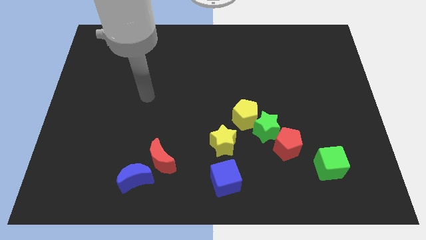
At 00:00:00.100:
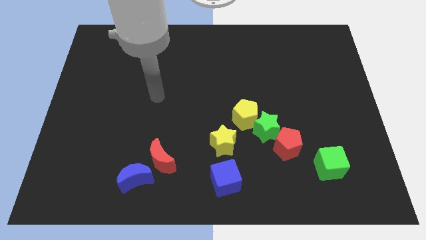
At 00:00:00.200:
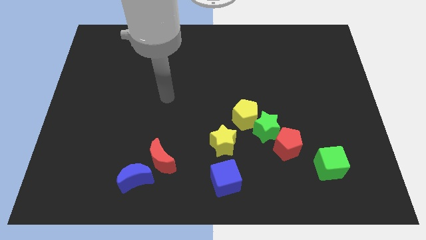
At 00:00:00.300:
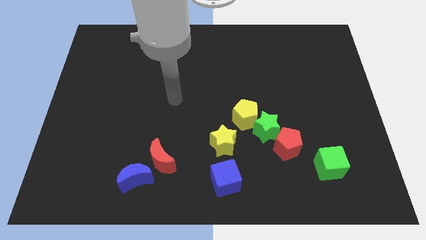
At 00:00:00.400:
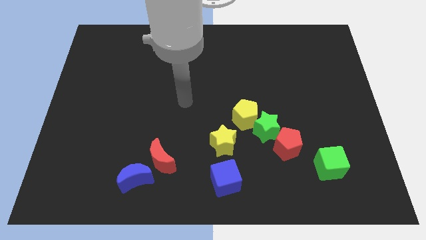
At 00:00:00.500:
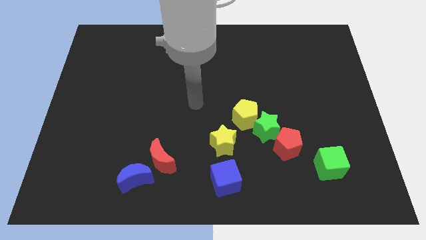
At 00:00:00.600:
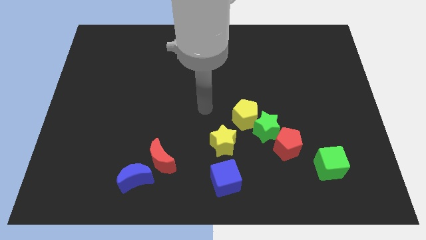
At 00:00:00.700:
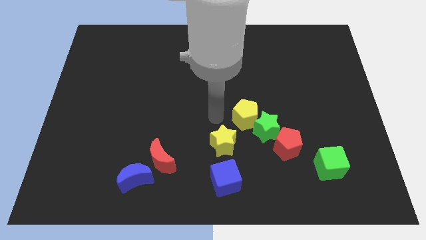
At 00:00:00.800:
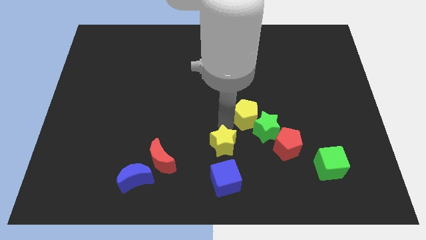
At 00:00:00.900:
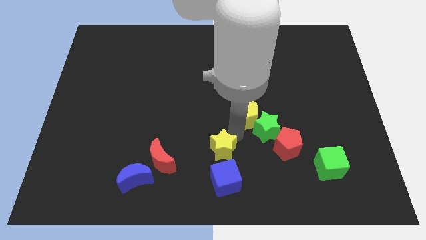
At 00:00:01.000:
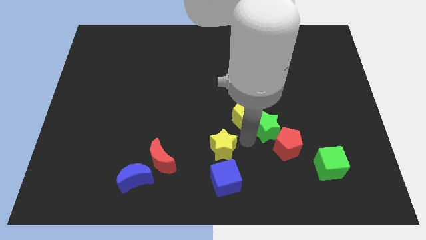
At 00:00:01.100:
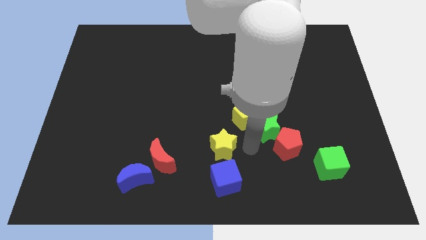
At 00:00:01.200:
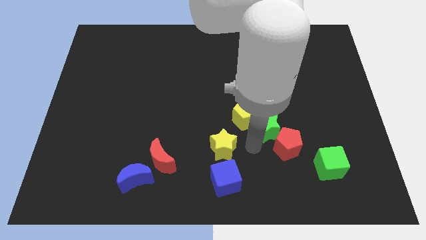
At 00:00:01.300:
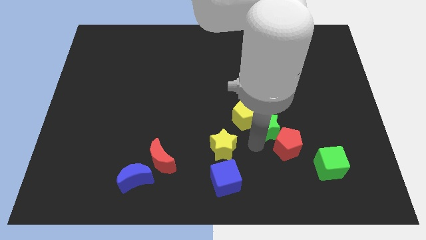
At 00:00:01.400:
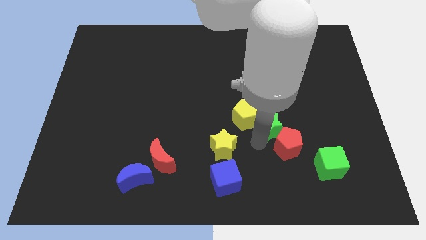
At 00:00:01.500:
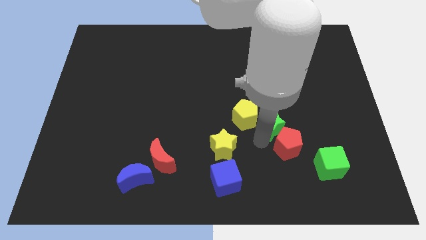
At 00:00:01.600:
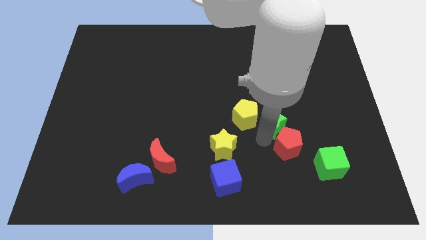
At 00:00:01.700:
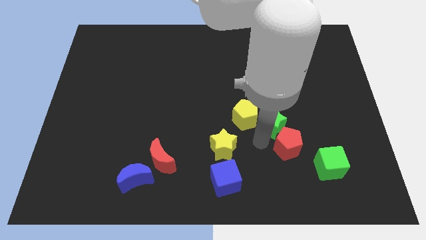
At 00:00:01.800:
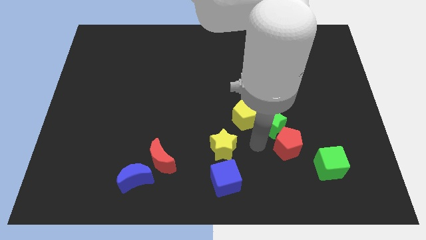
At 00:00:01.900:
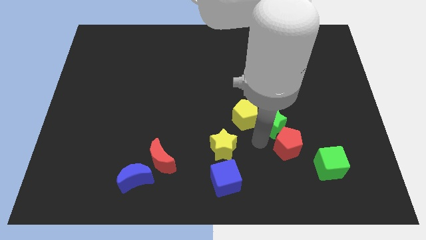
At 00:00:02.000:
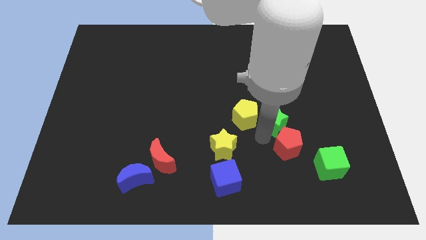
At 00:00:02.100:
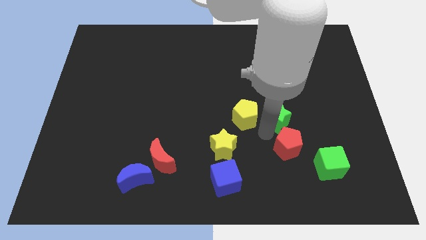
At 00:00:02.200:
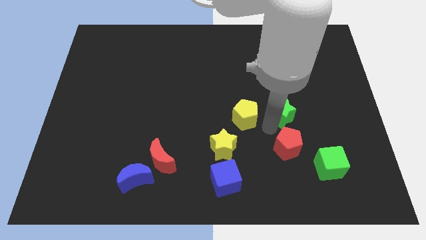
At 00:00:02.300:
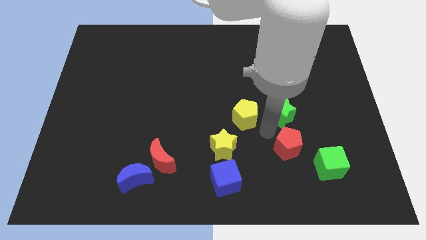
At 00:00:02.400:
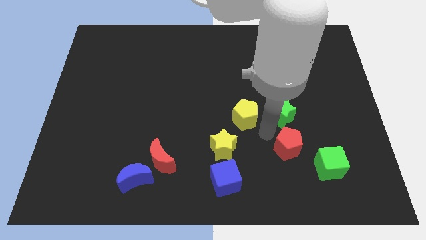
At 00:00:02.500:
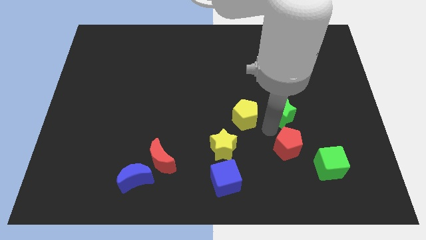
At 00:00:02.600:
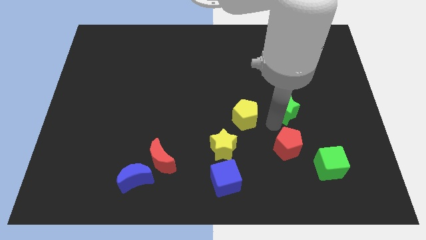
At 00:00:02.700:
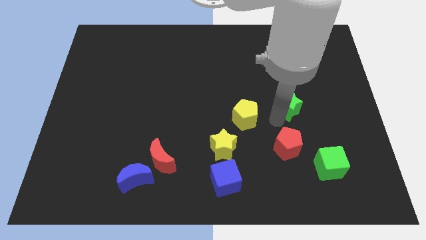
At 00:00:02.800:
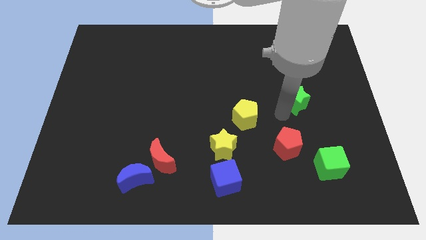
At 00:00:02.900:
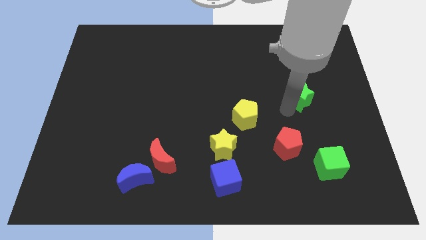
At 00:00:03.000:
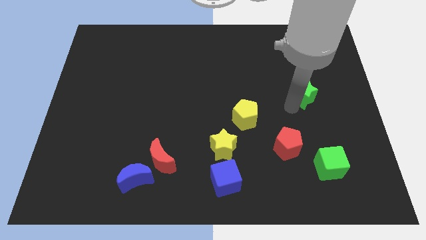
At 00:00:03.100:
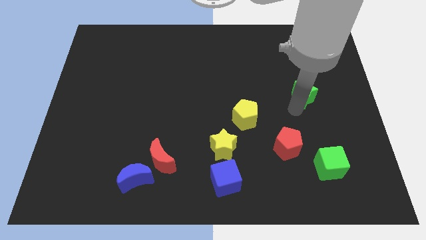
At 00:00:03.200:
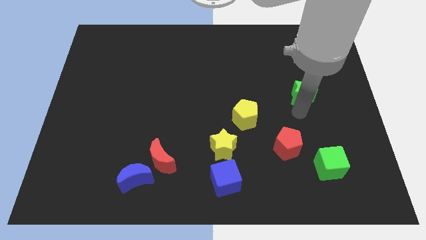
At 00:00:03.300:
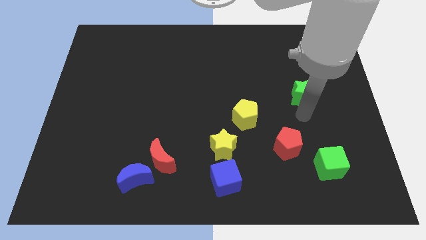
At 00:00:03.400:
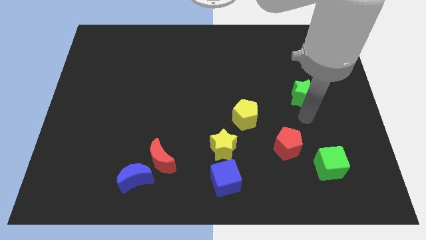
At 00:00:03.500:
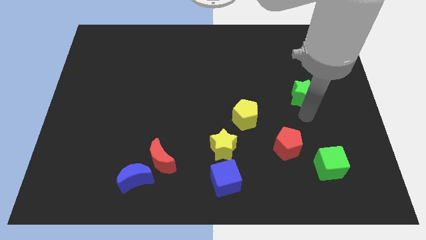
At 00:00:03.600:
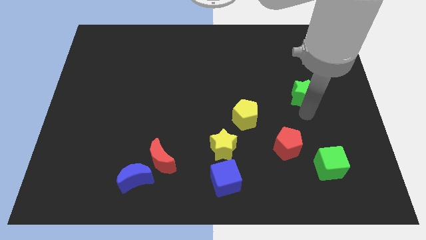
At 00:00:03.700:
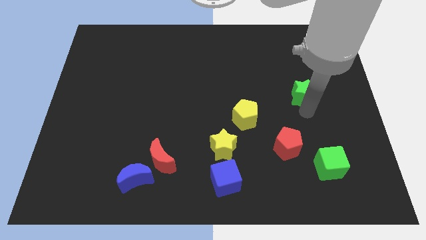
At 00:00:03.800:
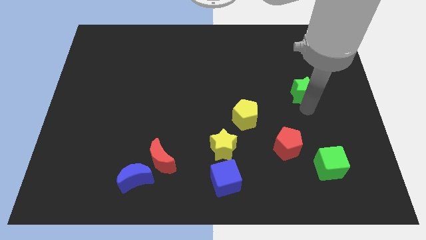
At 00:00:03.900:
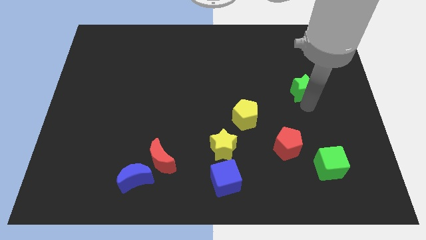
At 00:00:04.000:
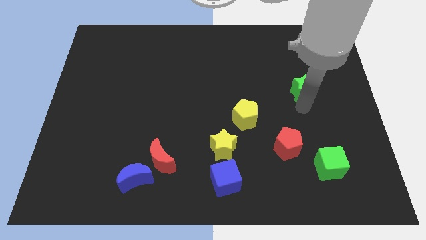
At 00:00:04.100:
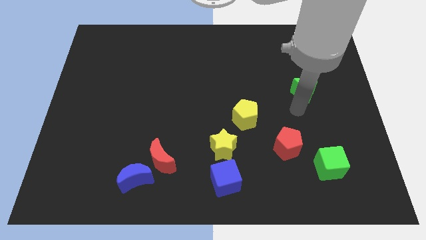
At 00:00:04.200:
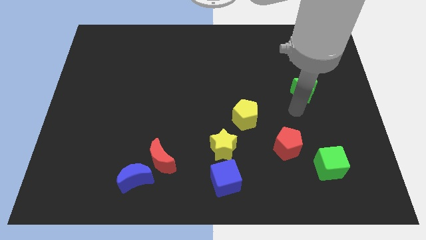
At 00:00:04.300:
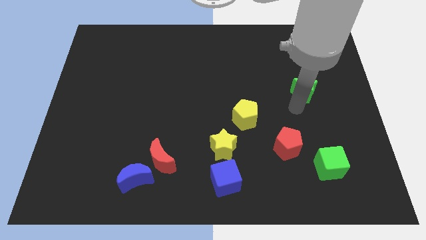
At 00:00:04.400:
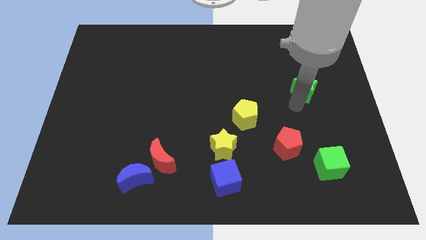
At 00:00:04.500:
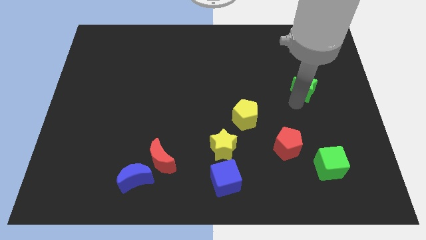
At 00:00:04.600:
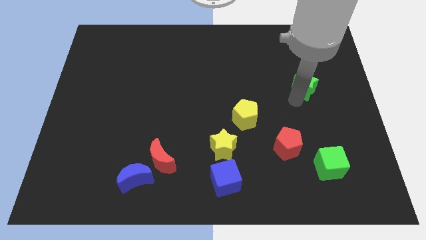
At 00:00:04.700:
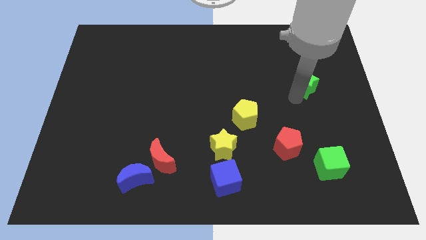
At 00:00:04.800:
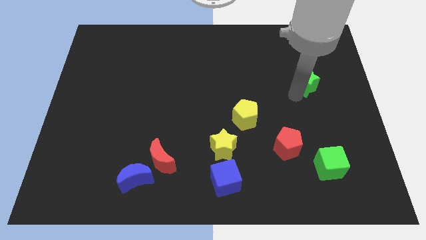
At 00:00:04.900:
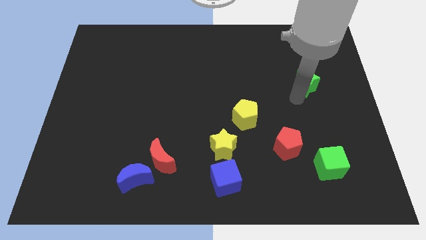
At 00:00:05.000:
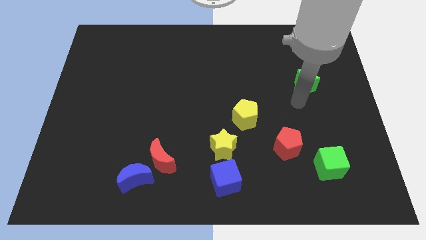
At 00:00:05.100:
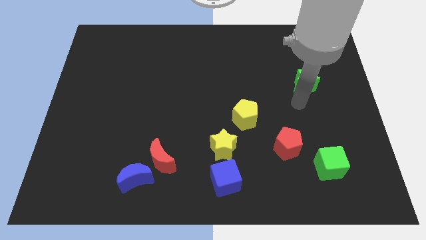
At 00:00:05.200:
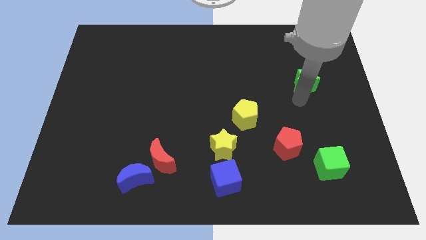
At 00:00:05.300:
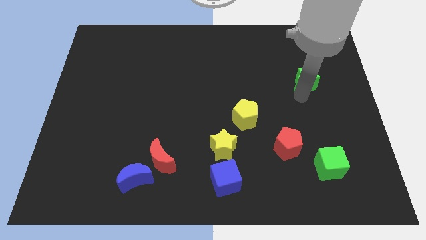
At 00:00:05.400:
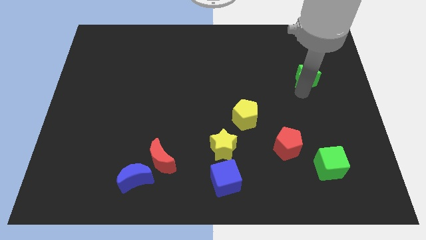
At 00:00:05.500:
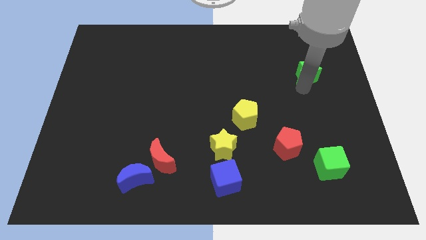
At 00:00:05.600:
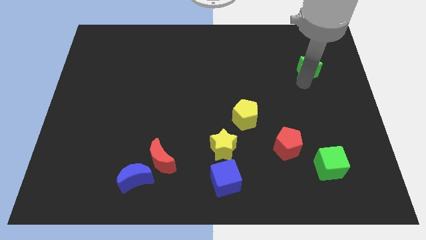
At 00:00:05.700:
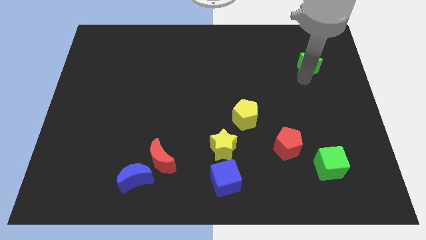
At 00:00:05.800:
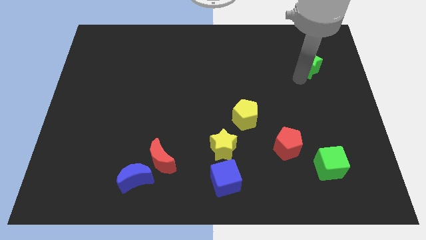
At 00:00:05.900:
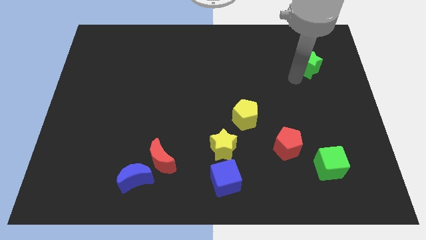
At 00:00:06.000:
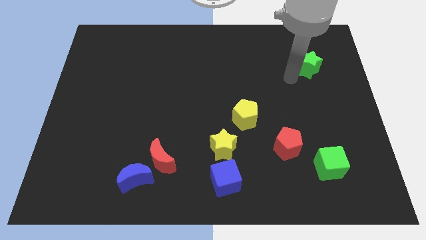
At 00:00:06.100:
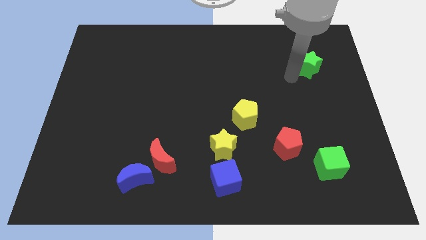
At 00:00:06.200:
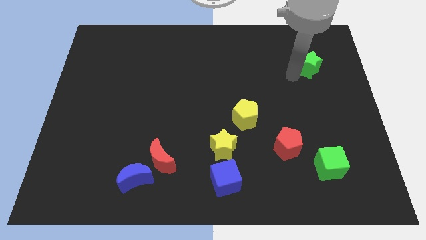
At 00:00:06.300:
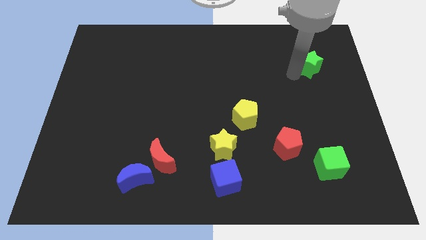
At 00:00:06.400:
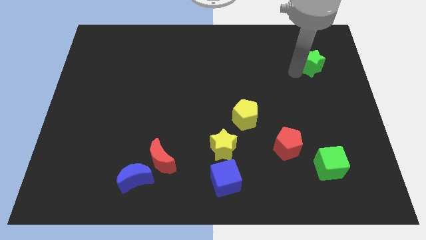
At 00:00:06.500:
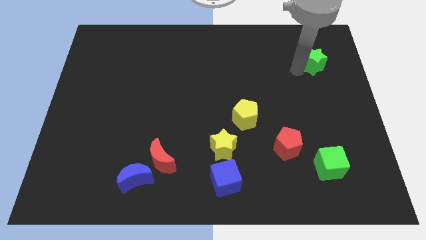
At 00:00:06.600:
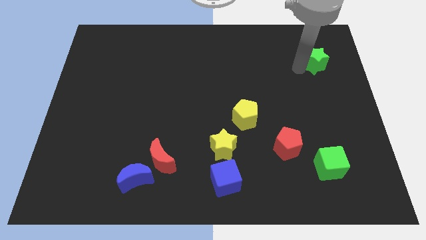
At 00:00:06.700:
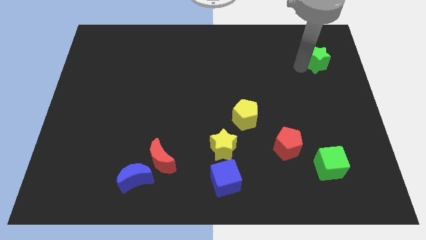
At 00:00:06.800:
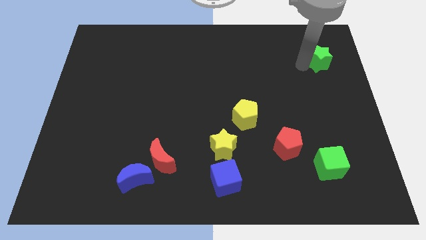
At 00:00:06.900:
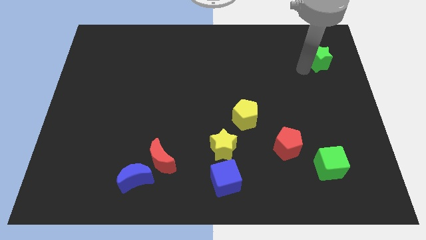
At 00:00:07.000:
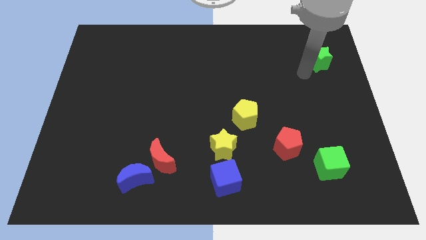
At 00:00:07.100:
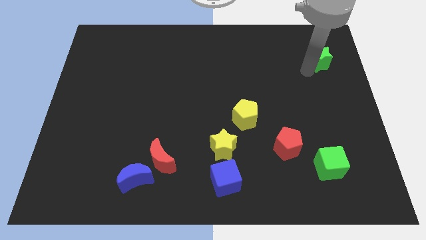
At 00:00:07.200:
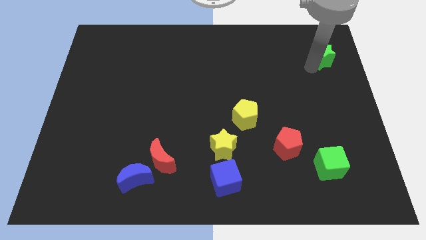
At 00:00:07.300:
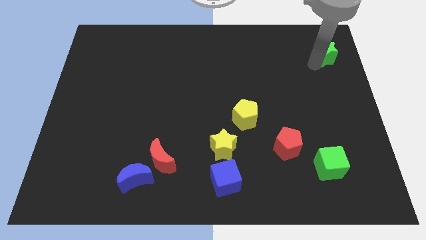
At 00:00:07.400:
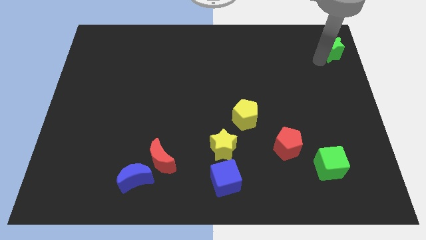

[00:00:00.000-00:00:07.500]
slide the green star to the upper right corner
